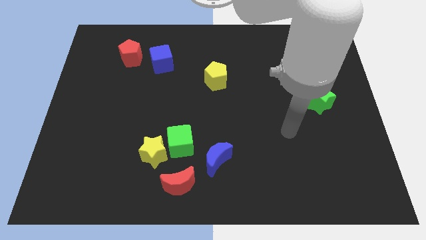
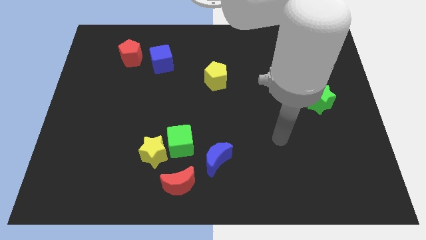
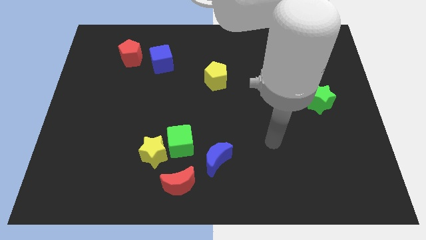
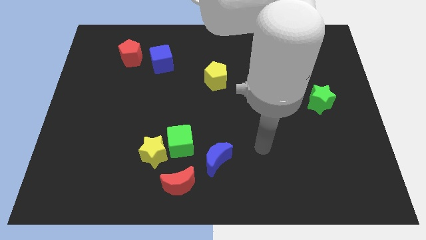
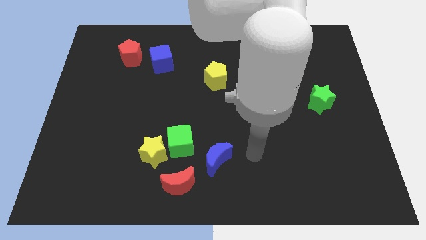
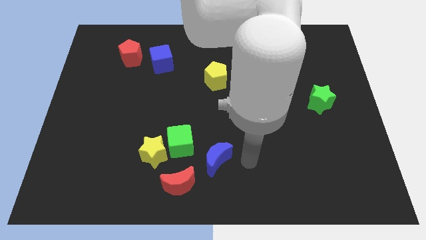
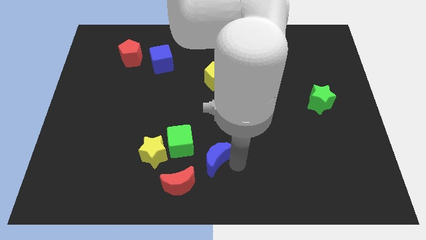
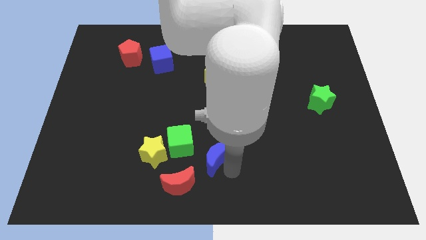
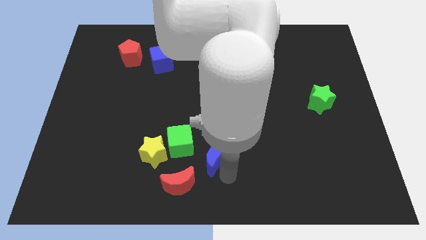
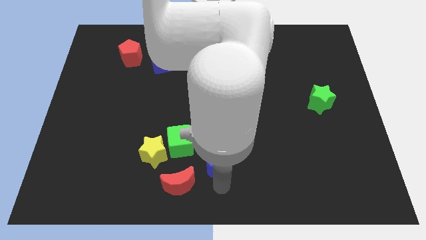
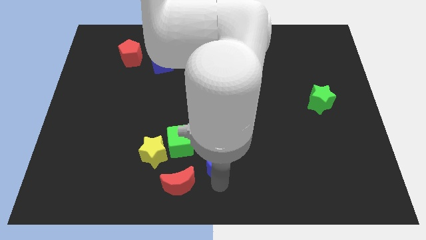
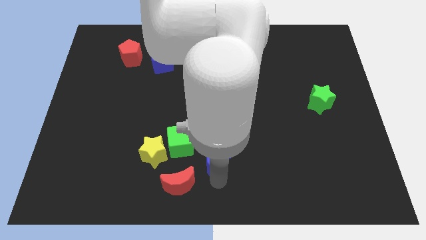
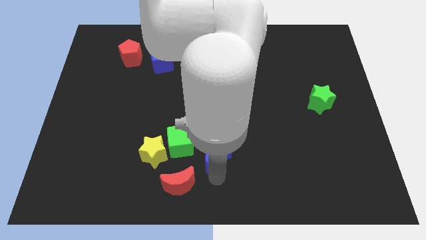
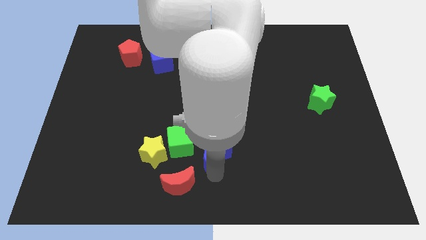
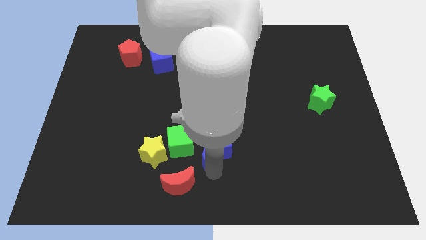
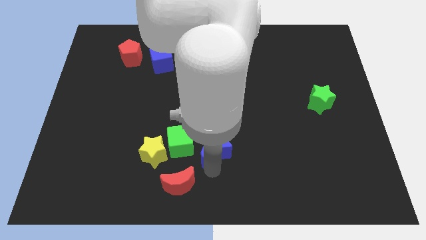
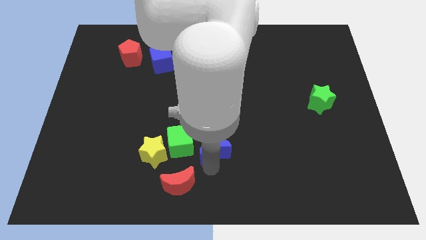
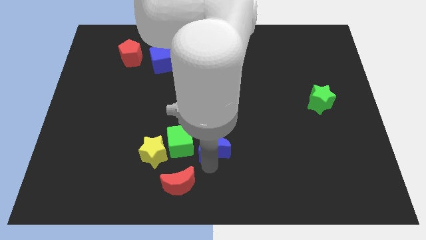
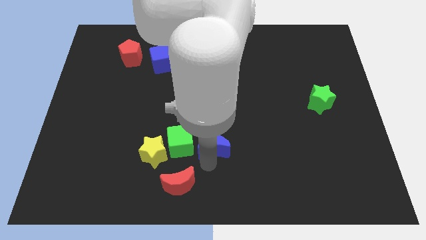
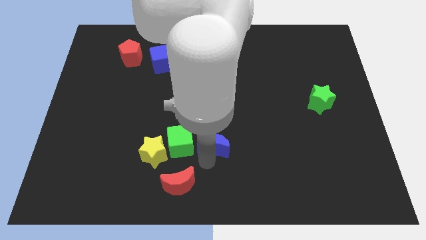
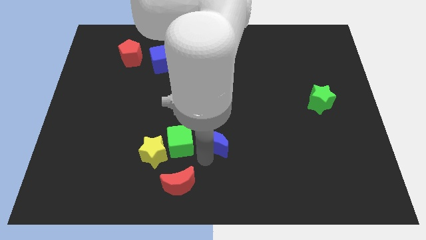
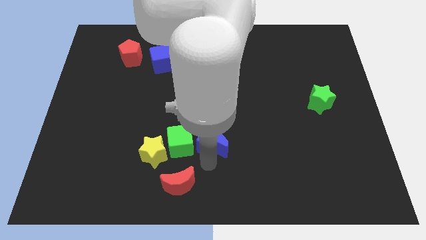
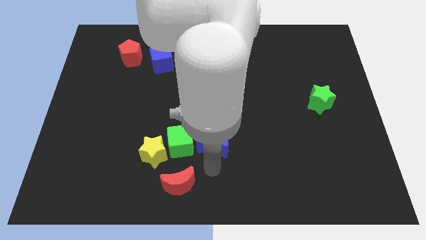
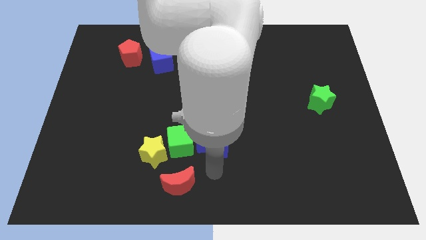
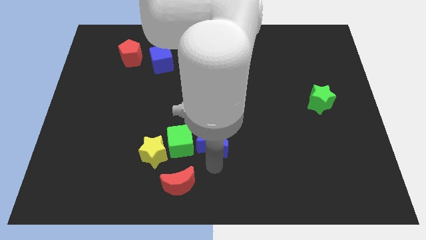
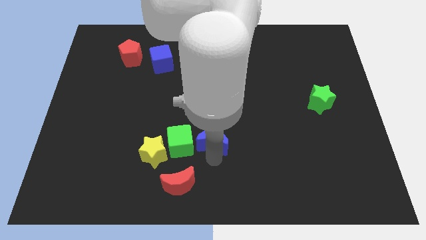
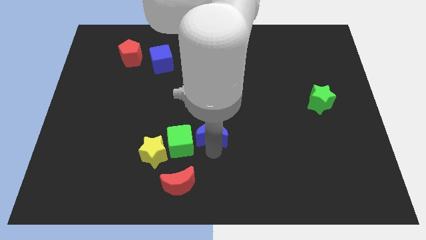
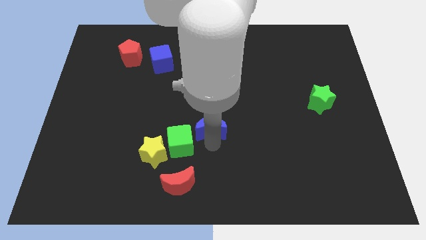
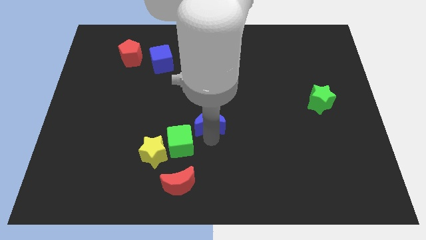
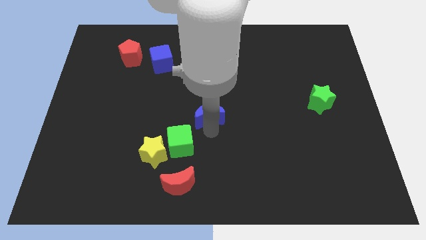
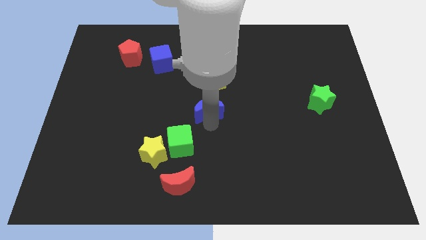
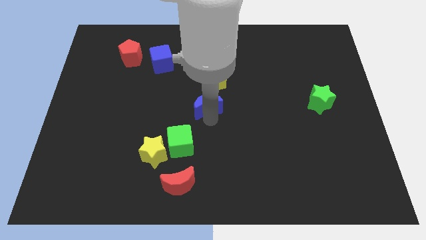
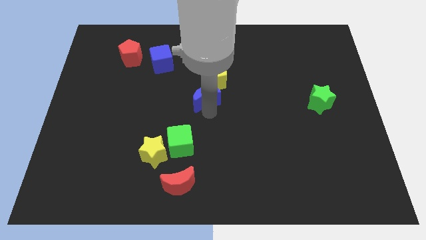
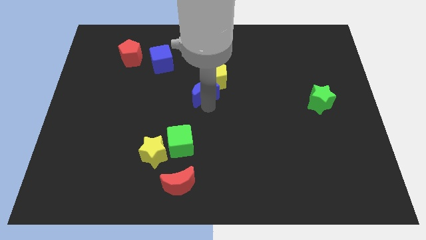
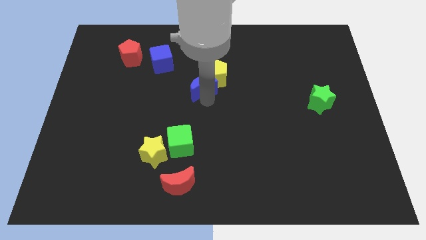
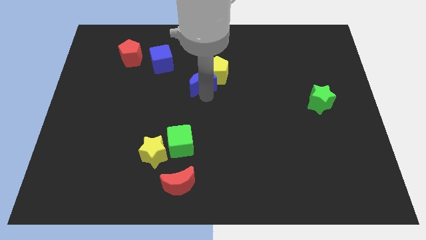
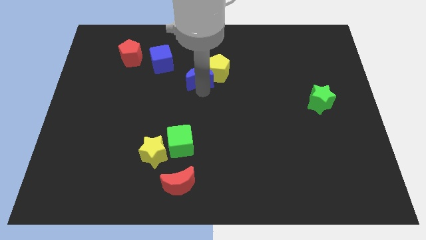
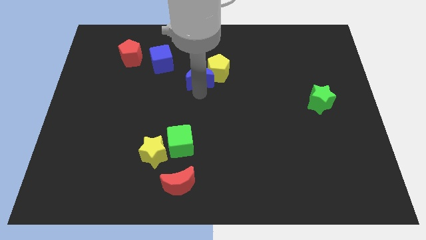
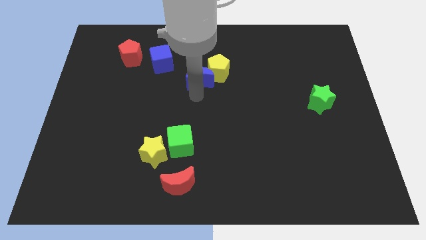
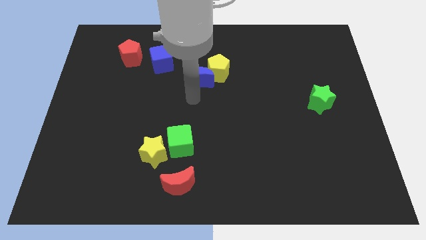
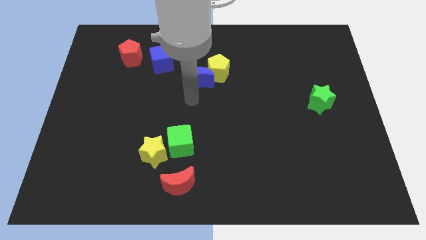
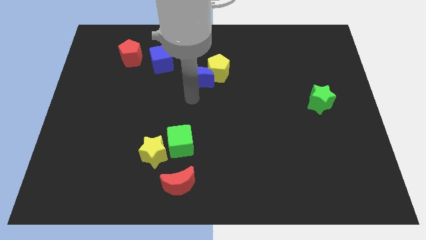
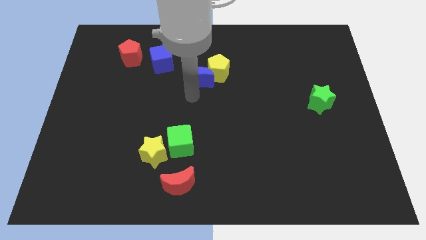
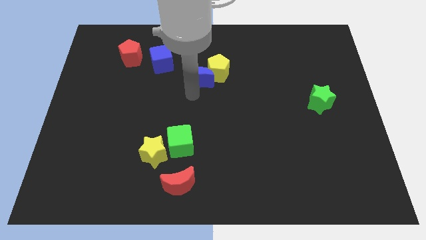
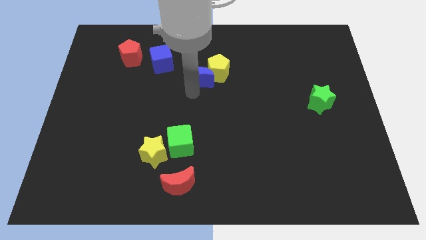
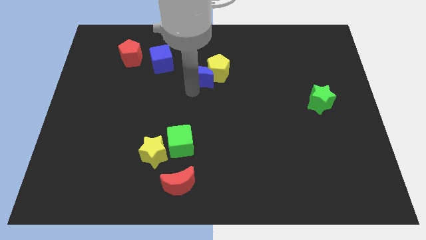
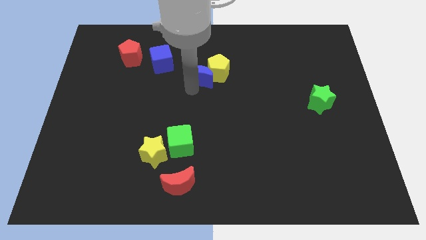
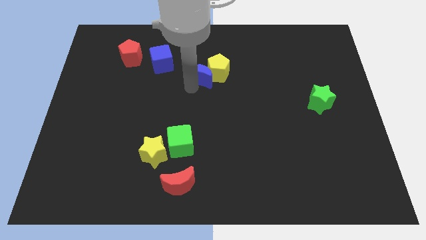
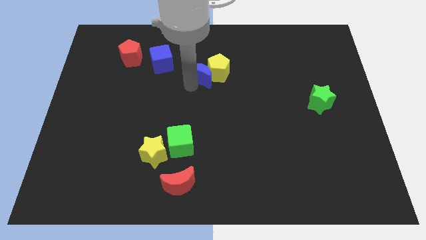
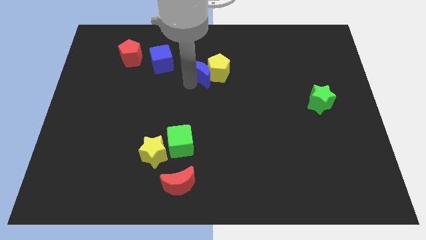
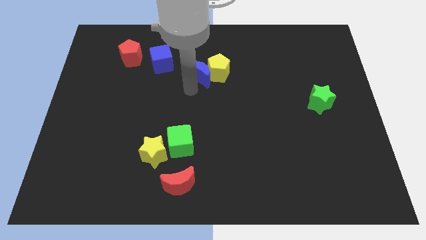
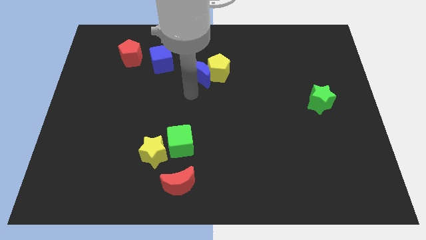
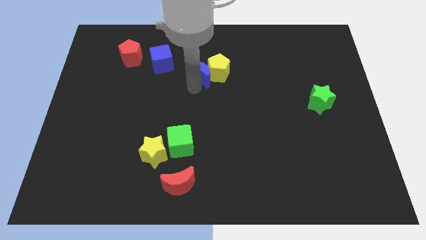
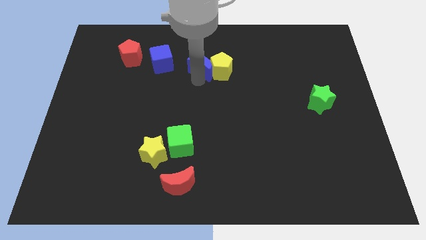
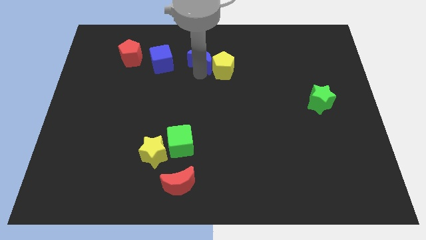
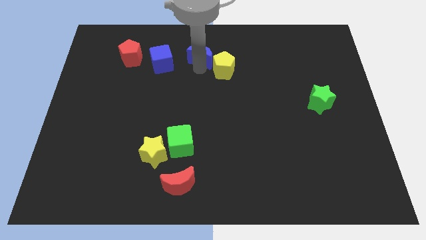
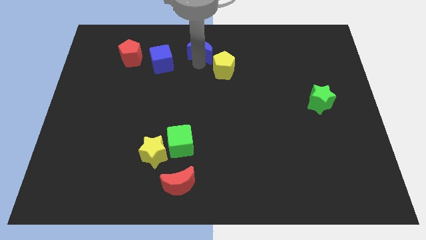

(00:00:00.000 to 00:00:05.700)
push the blue moon to the top

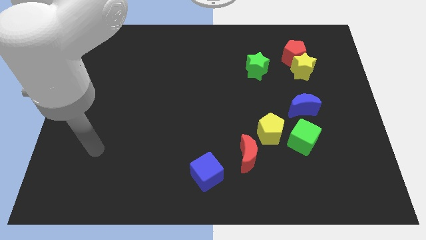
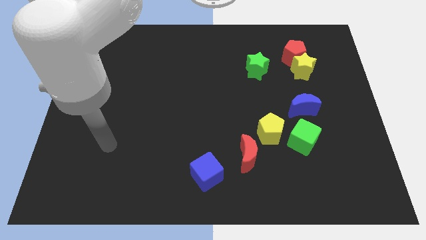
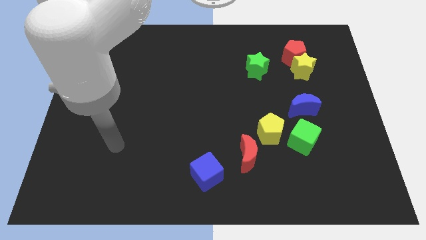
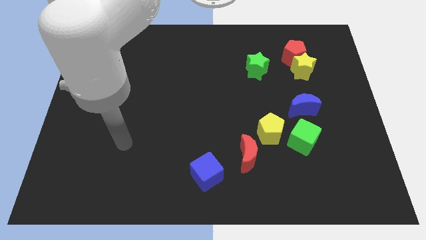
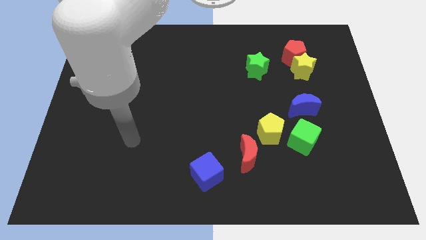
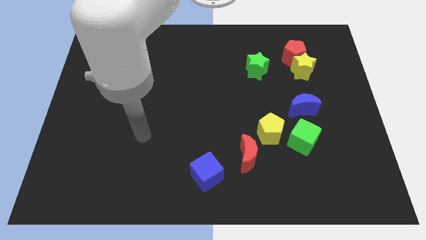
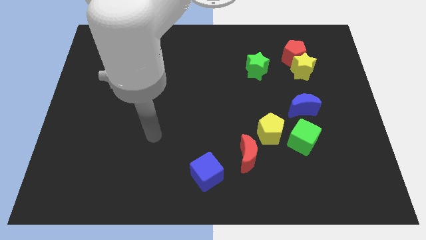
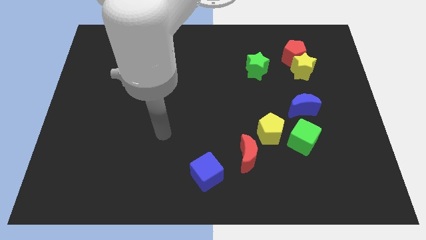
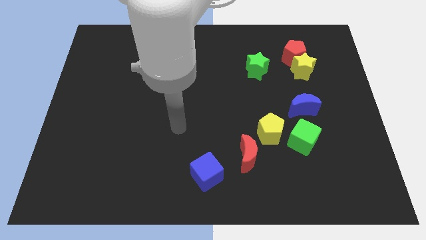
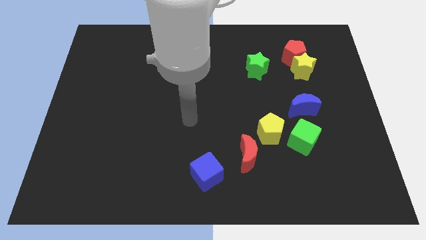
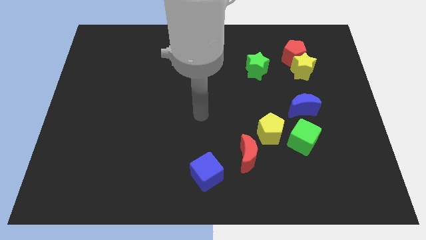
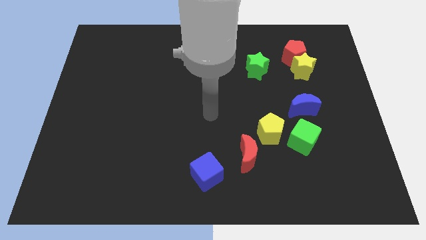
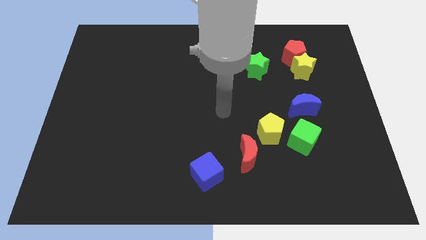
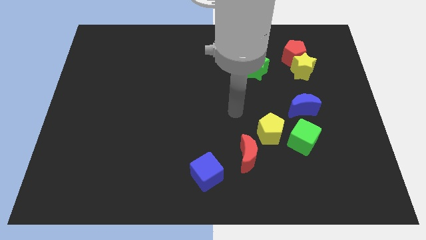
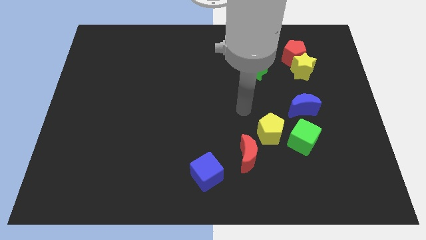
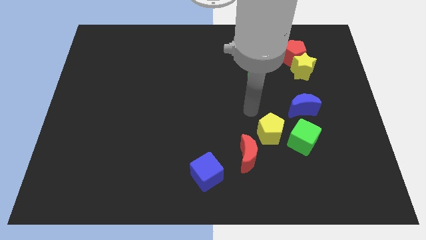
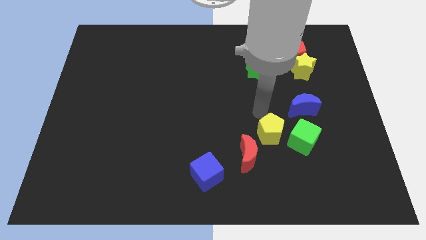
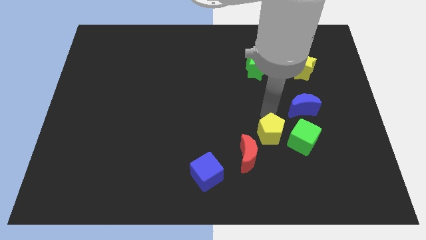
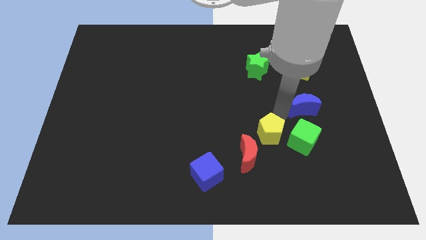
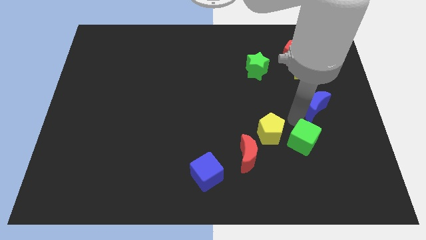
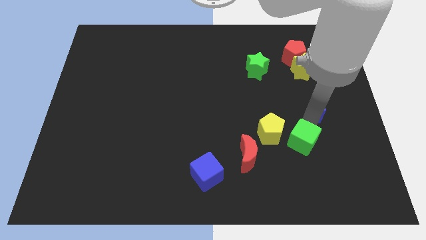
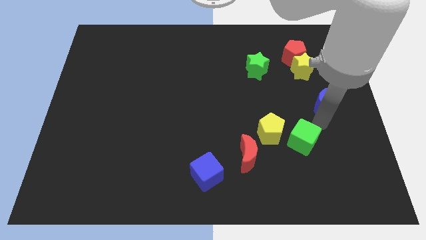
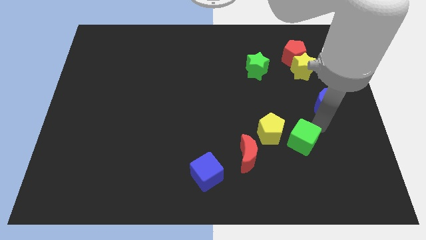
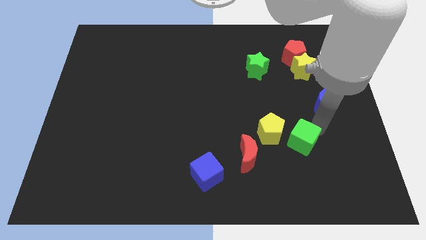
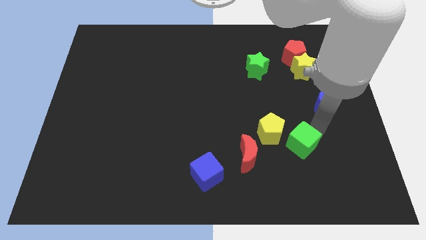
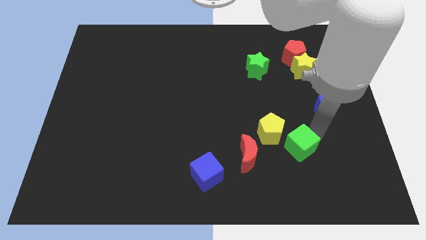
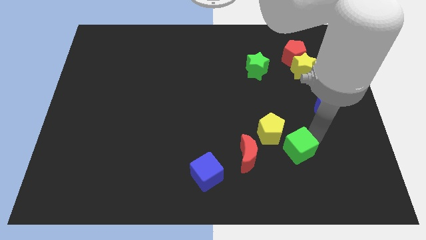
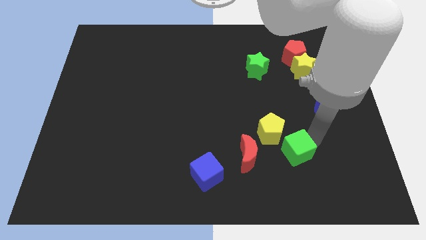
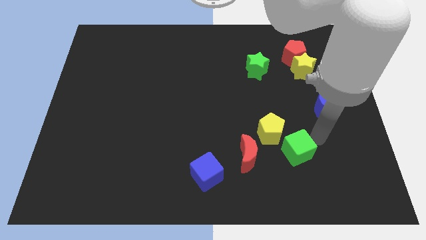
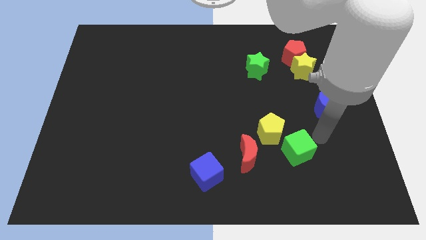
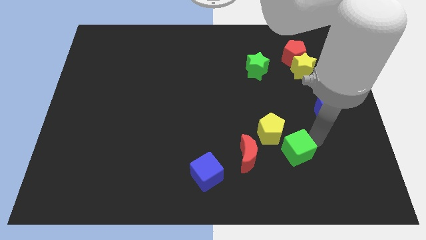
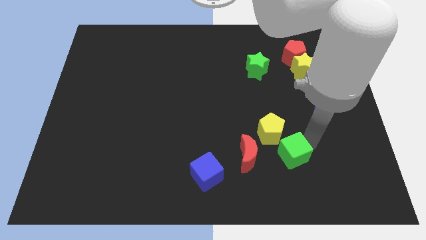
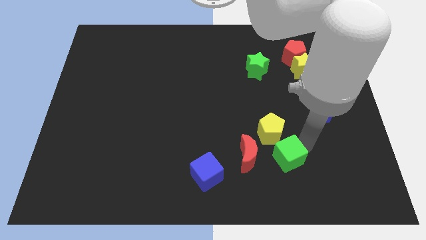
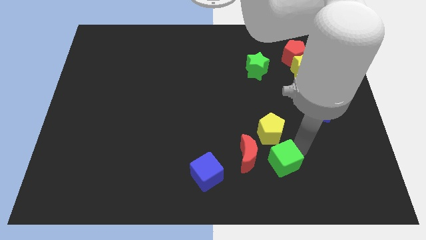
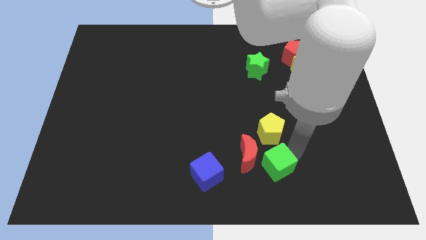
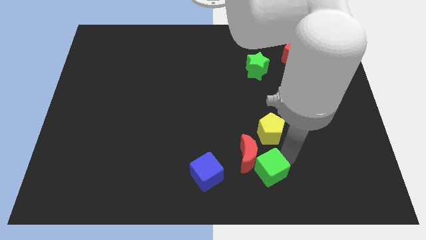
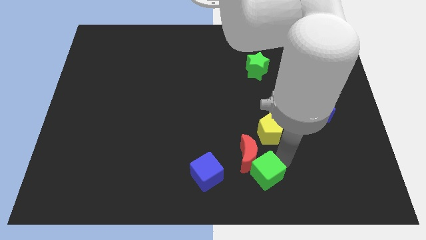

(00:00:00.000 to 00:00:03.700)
put the green cube to the bottom
